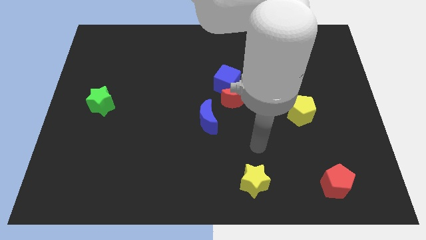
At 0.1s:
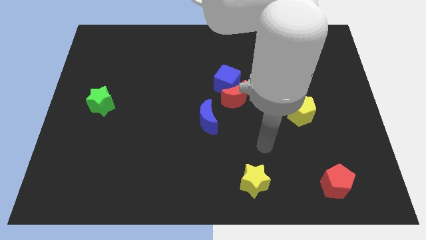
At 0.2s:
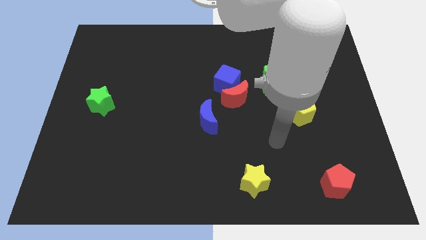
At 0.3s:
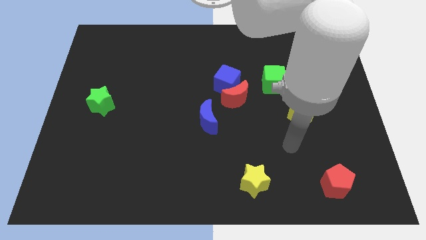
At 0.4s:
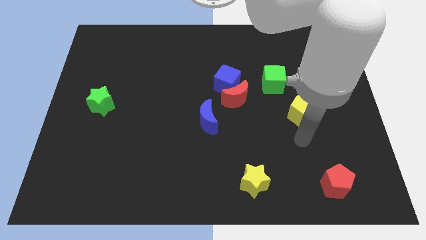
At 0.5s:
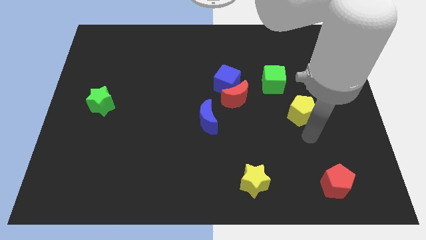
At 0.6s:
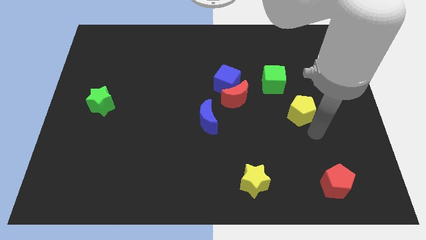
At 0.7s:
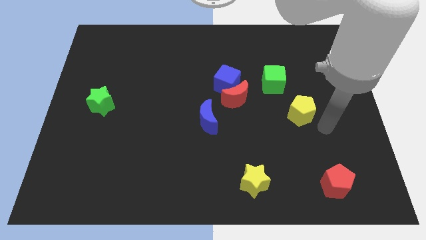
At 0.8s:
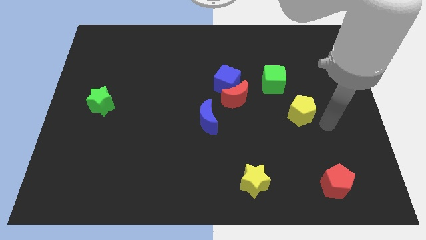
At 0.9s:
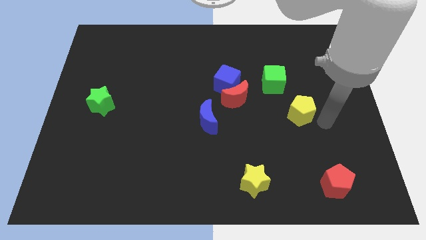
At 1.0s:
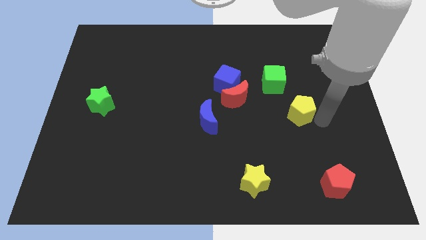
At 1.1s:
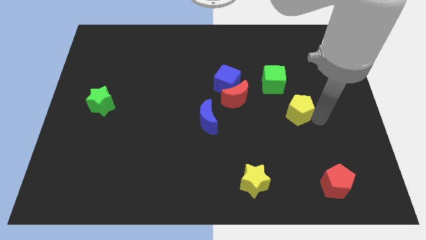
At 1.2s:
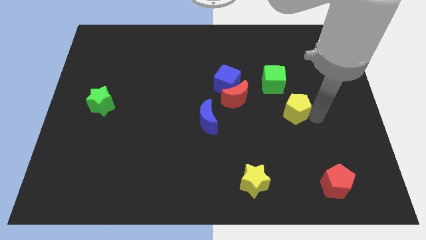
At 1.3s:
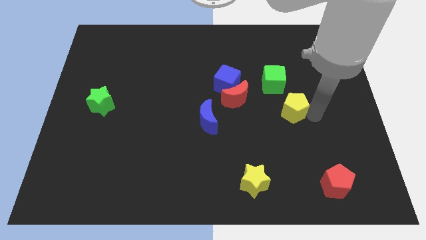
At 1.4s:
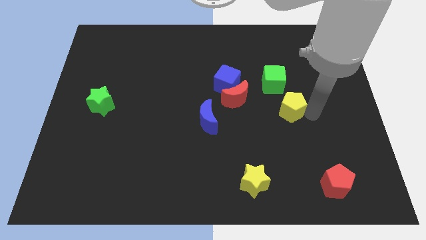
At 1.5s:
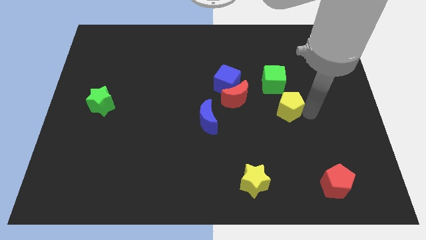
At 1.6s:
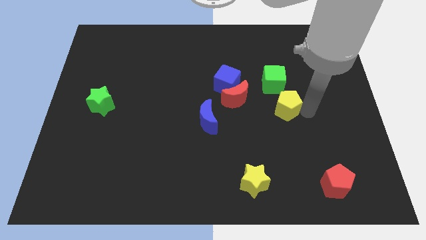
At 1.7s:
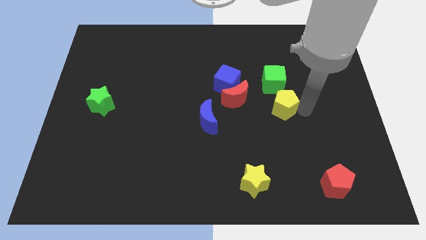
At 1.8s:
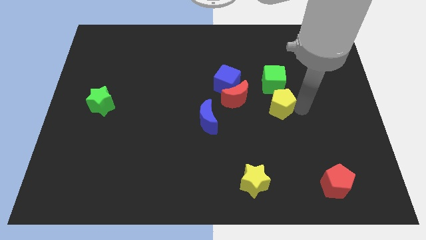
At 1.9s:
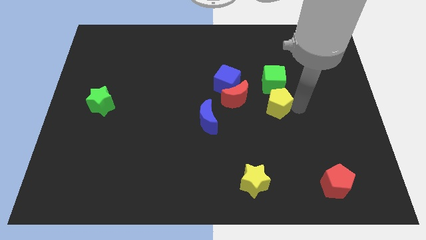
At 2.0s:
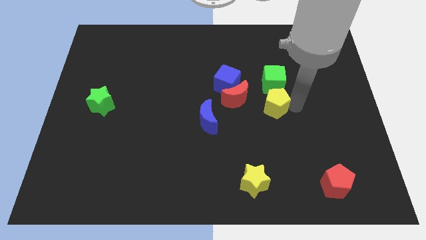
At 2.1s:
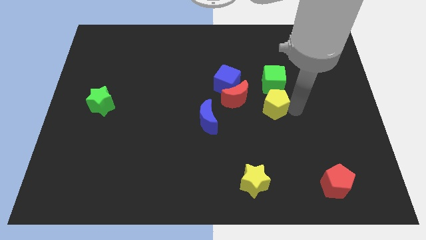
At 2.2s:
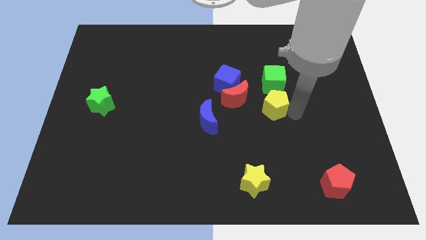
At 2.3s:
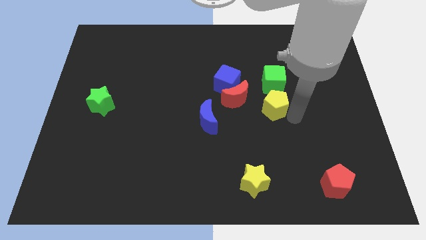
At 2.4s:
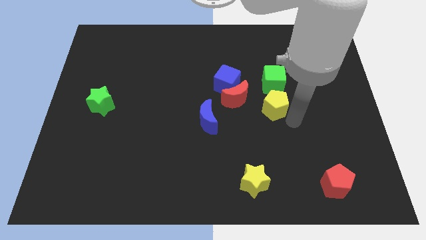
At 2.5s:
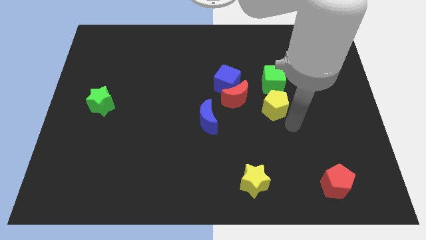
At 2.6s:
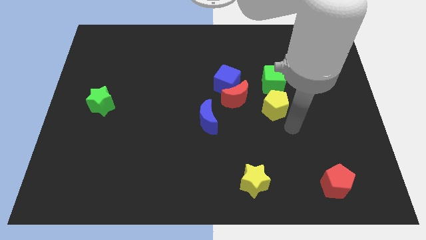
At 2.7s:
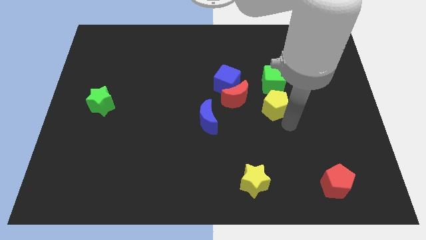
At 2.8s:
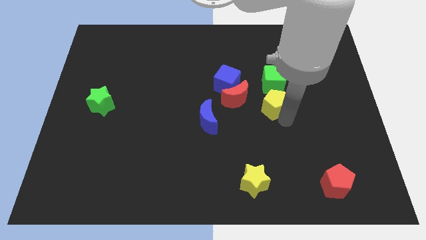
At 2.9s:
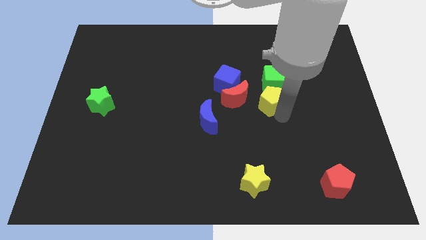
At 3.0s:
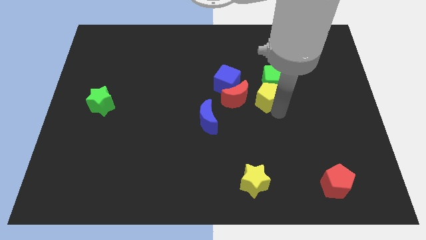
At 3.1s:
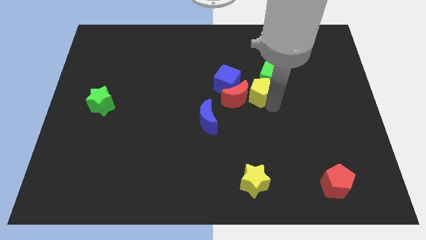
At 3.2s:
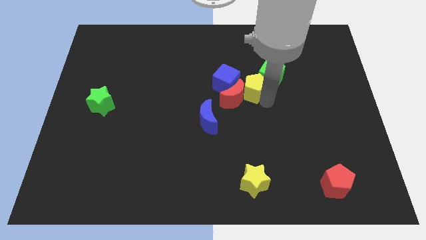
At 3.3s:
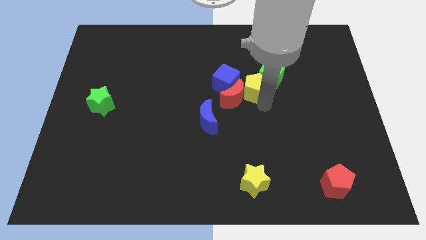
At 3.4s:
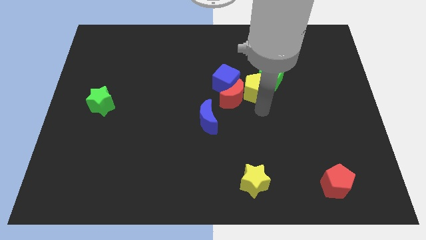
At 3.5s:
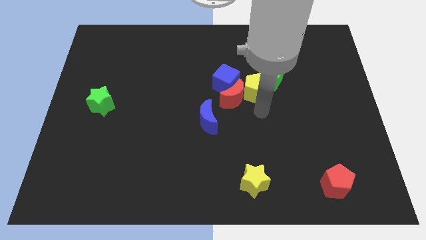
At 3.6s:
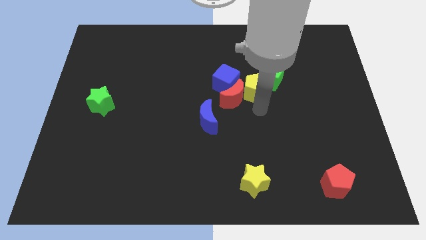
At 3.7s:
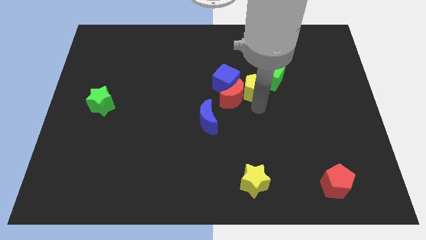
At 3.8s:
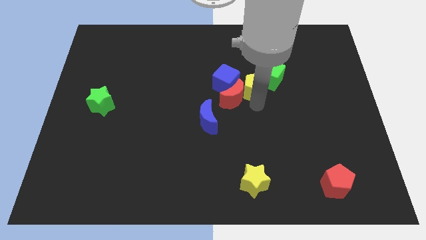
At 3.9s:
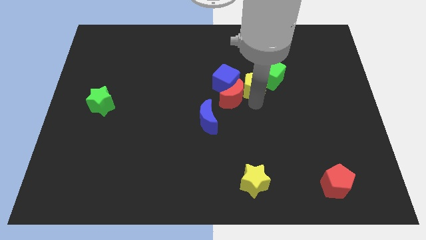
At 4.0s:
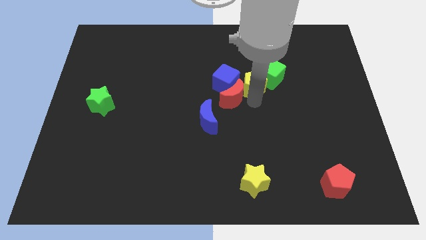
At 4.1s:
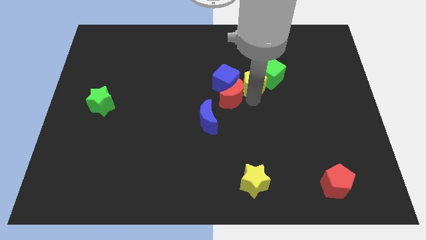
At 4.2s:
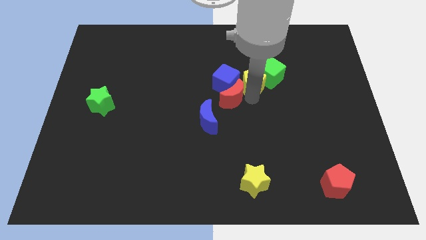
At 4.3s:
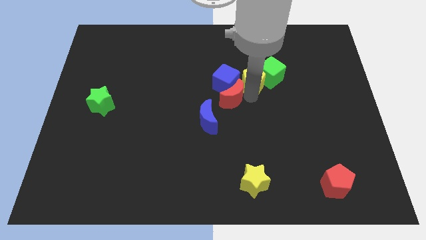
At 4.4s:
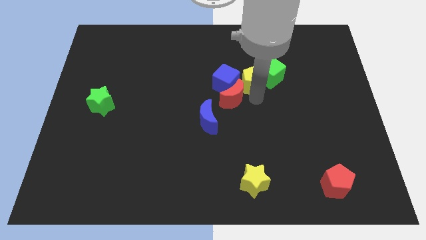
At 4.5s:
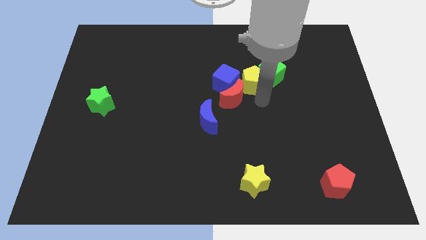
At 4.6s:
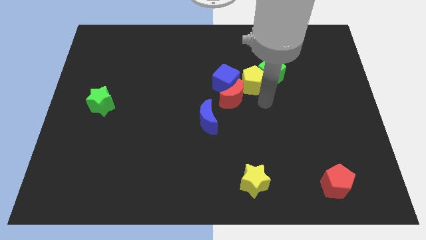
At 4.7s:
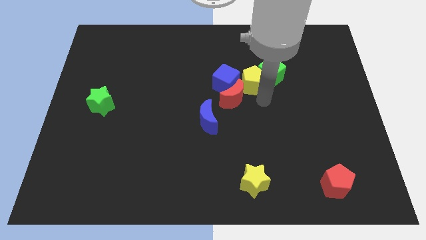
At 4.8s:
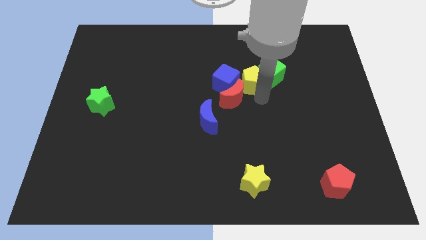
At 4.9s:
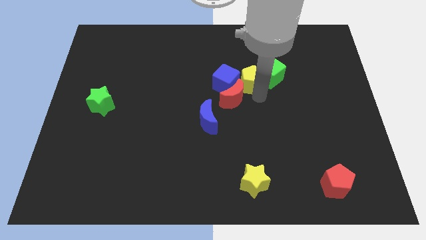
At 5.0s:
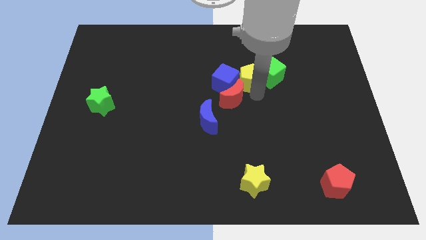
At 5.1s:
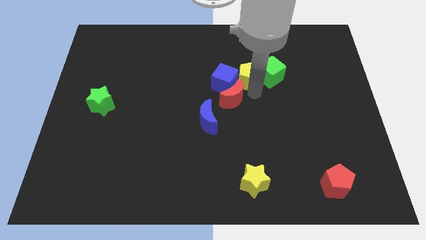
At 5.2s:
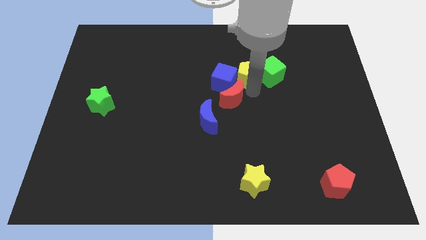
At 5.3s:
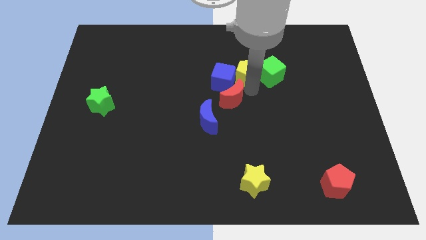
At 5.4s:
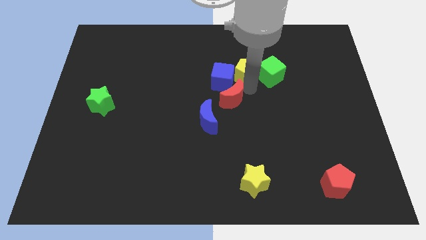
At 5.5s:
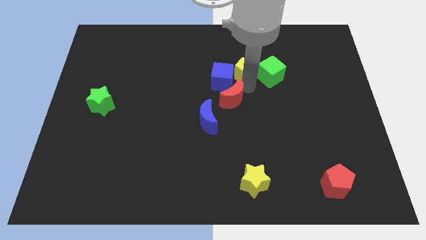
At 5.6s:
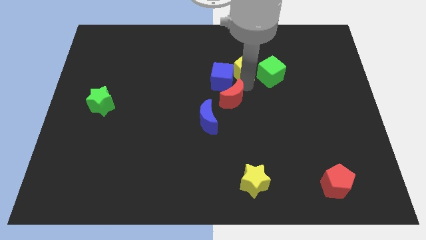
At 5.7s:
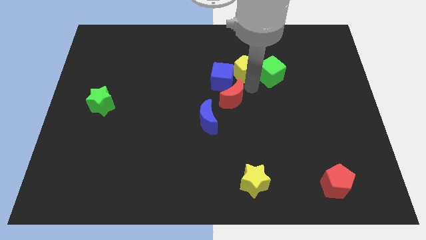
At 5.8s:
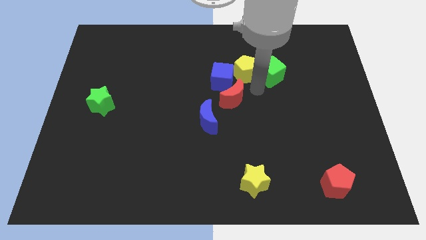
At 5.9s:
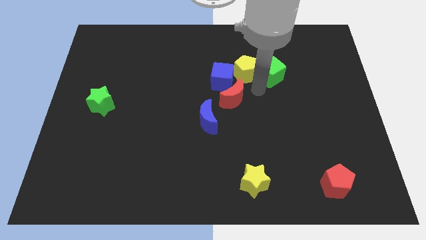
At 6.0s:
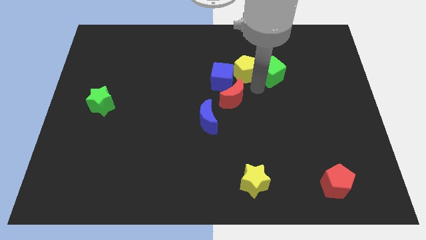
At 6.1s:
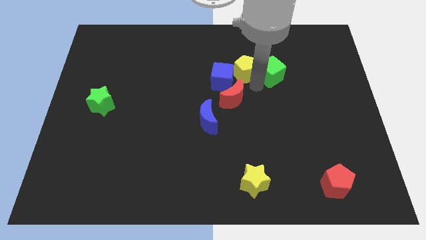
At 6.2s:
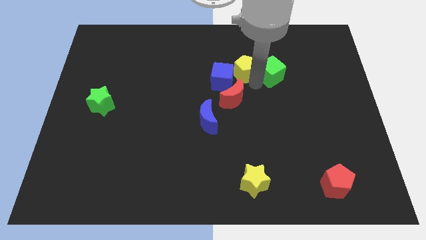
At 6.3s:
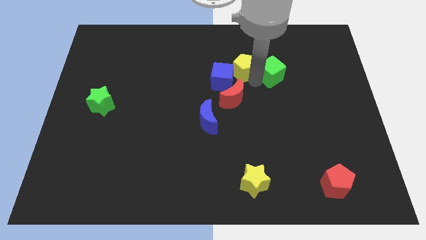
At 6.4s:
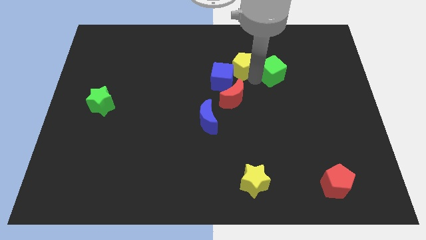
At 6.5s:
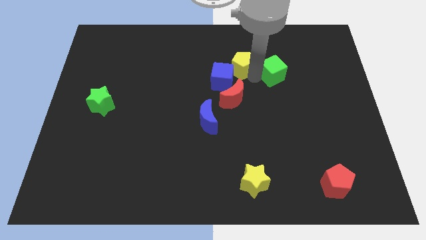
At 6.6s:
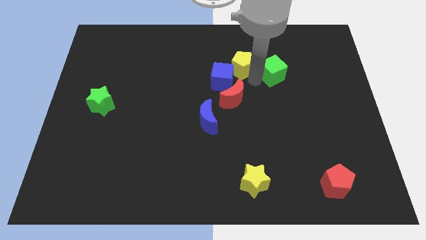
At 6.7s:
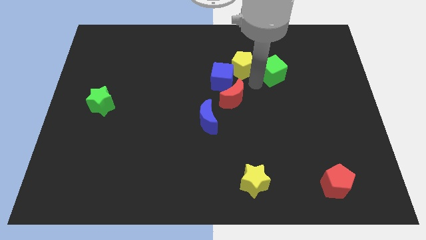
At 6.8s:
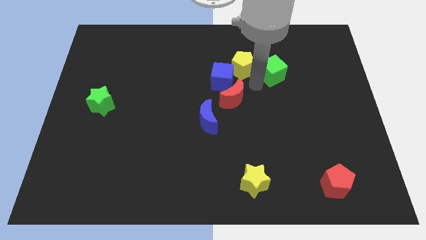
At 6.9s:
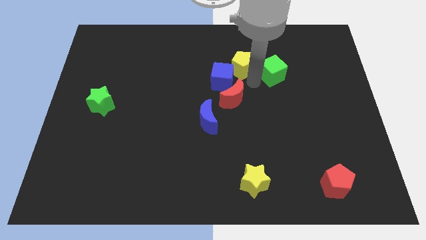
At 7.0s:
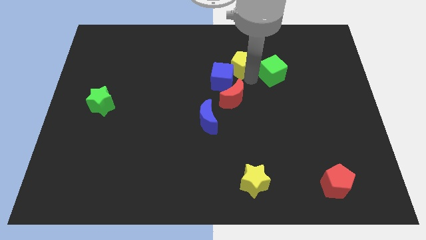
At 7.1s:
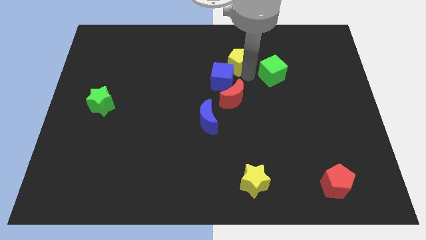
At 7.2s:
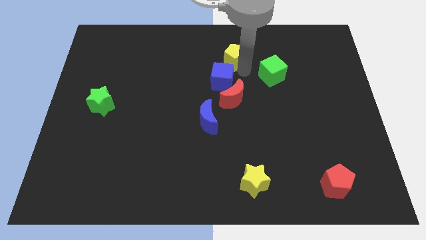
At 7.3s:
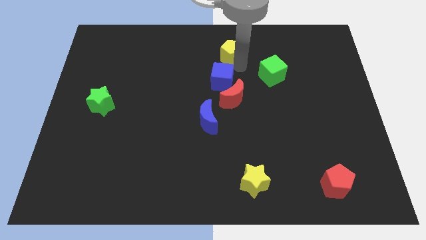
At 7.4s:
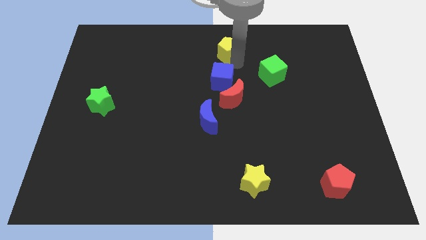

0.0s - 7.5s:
move the yellow pentagon to the top side
